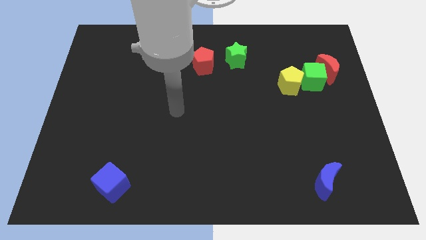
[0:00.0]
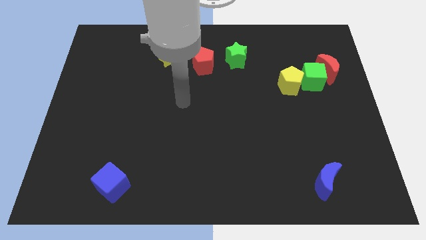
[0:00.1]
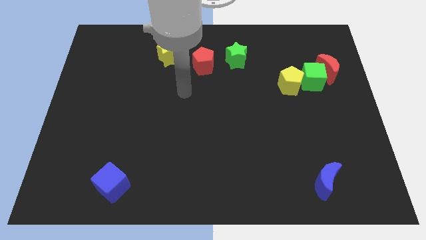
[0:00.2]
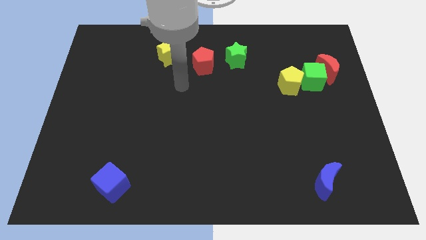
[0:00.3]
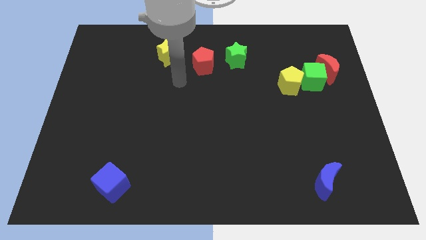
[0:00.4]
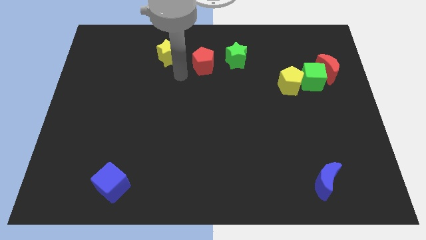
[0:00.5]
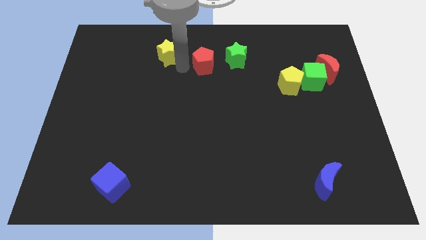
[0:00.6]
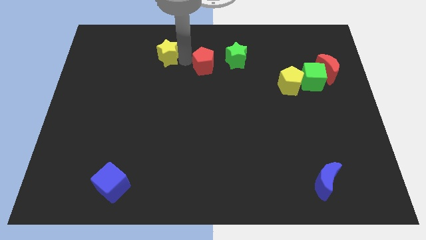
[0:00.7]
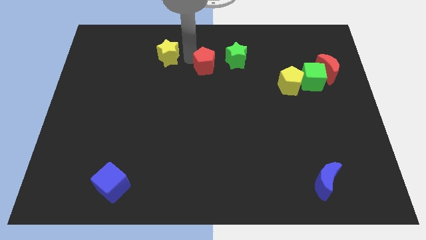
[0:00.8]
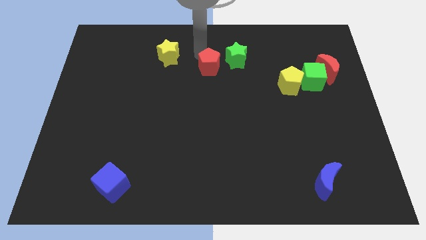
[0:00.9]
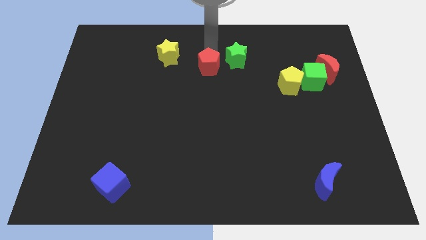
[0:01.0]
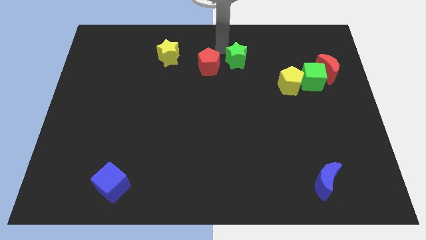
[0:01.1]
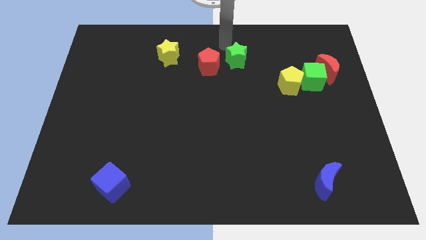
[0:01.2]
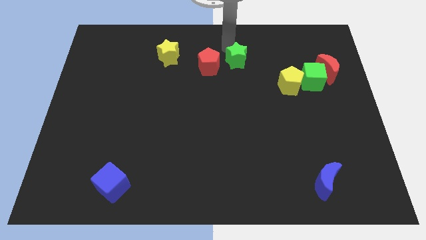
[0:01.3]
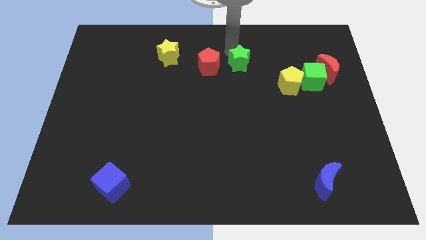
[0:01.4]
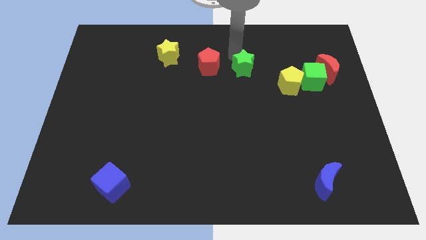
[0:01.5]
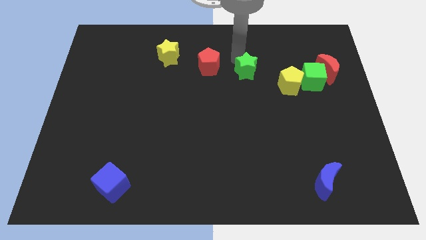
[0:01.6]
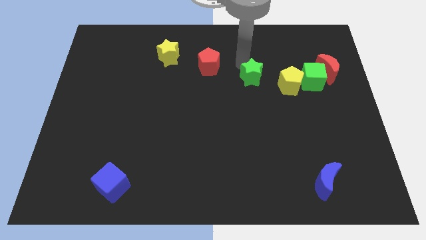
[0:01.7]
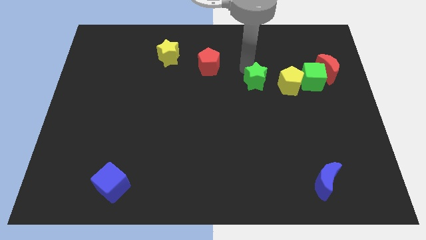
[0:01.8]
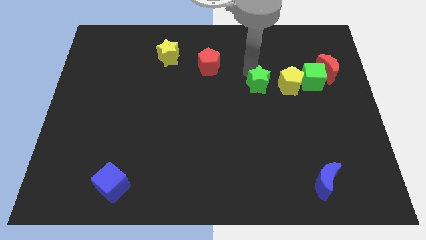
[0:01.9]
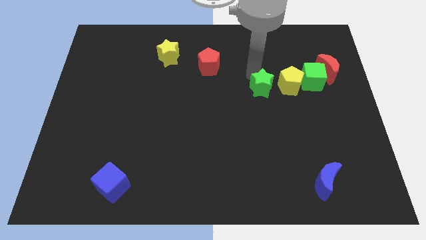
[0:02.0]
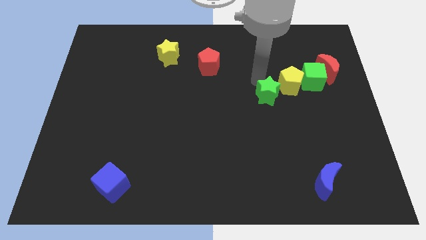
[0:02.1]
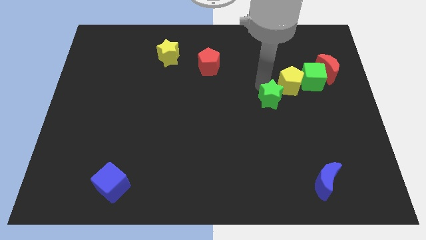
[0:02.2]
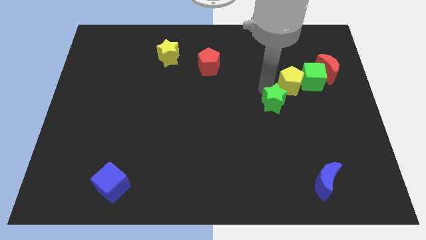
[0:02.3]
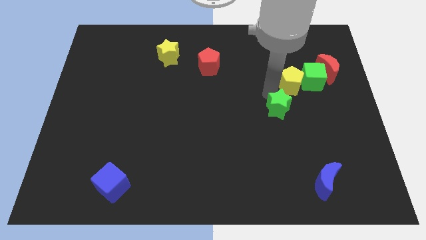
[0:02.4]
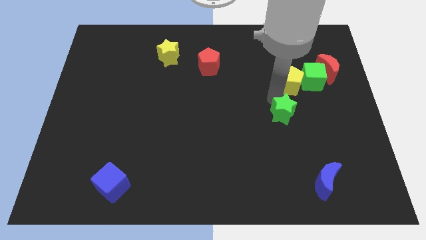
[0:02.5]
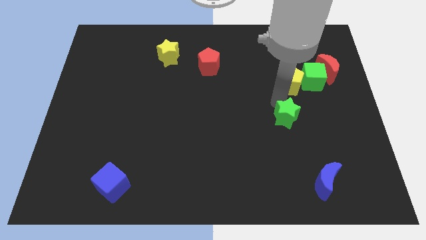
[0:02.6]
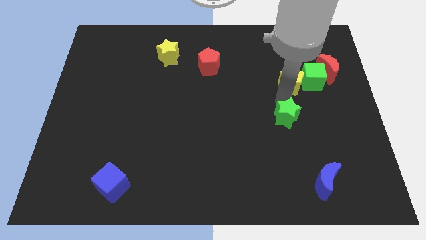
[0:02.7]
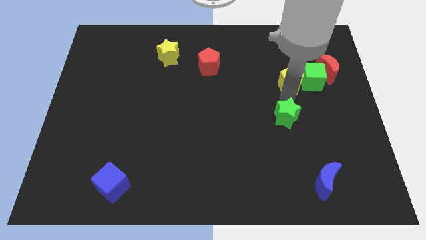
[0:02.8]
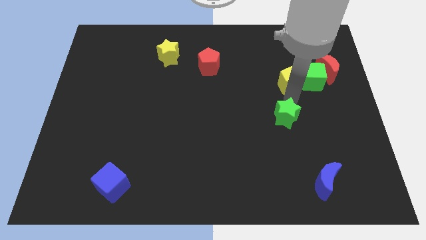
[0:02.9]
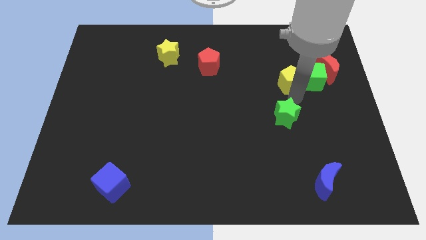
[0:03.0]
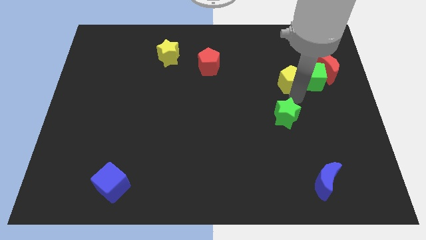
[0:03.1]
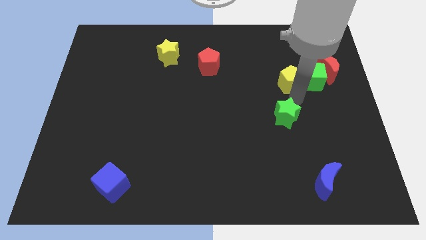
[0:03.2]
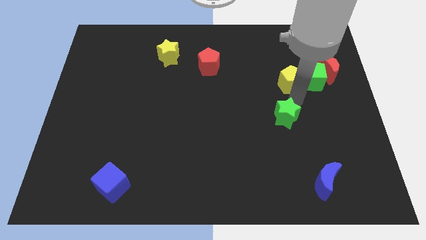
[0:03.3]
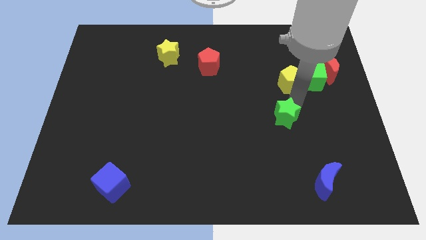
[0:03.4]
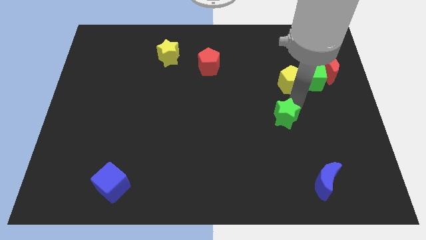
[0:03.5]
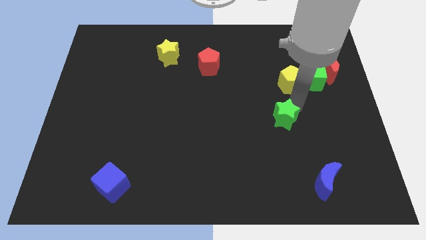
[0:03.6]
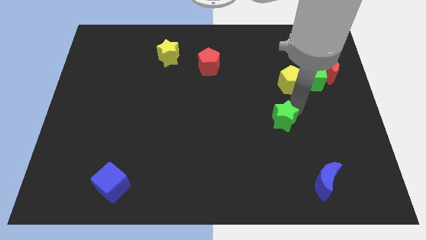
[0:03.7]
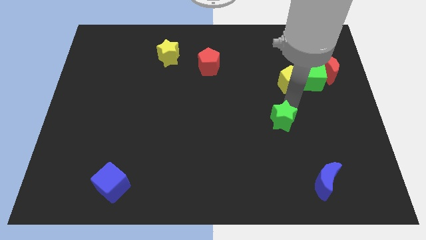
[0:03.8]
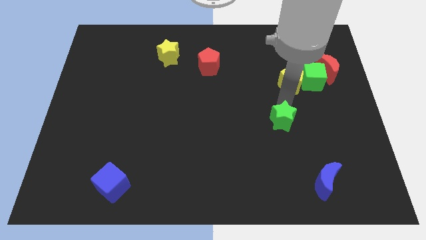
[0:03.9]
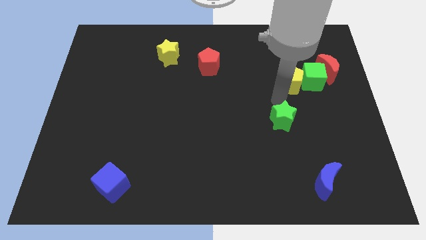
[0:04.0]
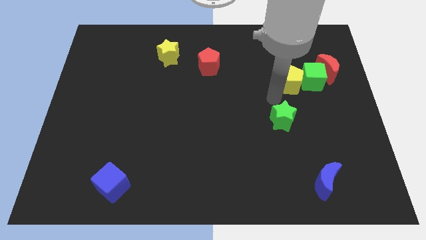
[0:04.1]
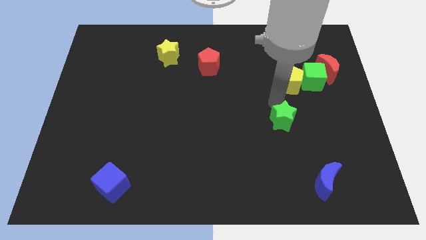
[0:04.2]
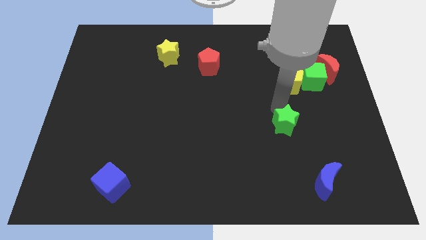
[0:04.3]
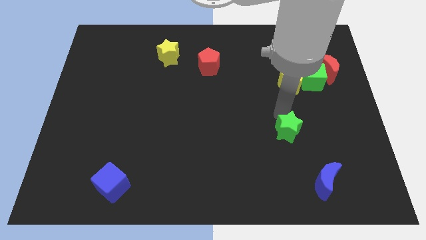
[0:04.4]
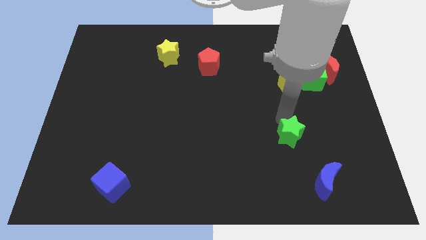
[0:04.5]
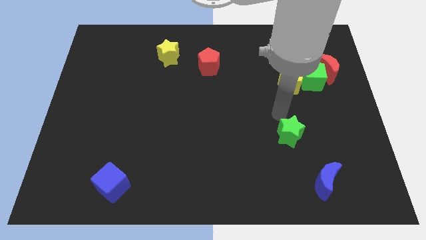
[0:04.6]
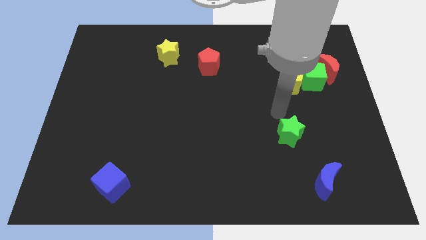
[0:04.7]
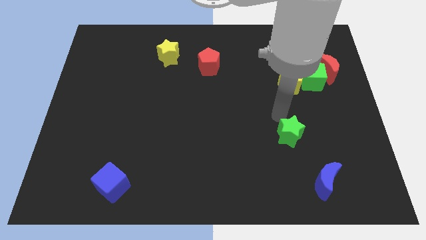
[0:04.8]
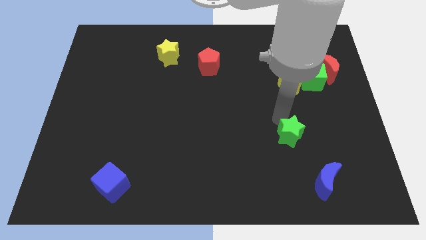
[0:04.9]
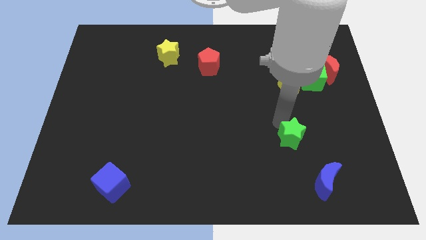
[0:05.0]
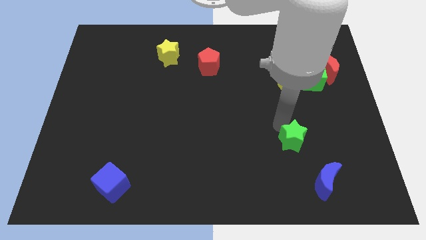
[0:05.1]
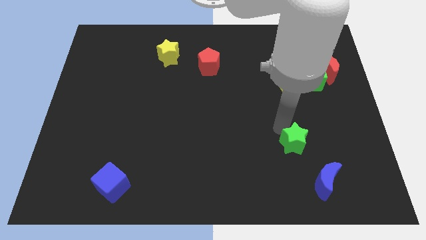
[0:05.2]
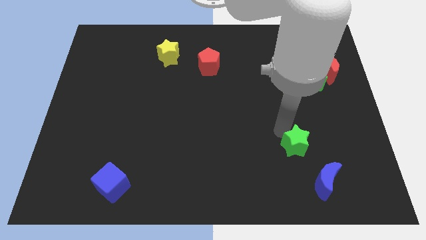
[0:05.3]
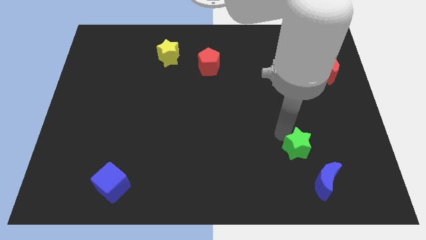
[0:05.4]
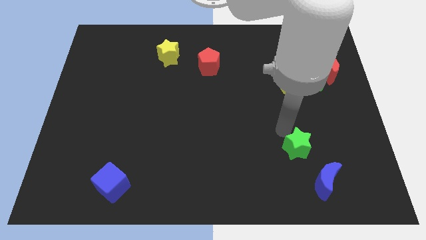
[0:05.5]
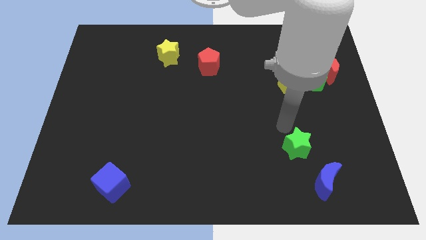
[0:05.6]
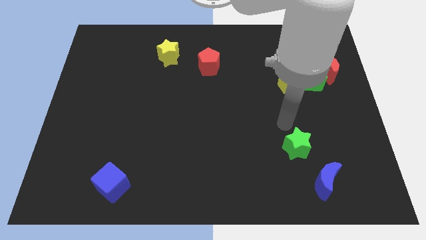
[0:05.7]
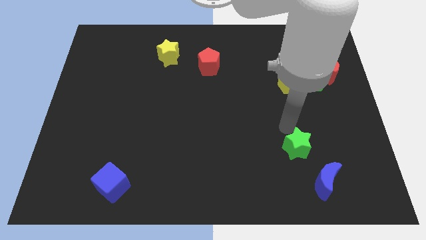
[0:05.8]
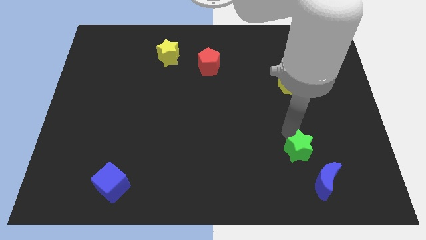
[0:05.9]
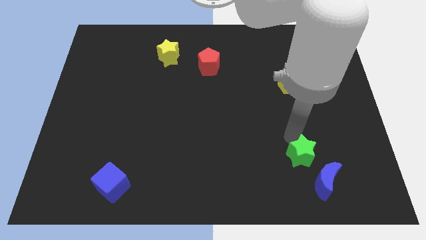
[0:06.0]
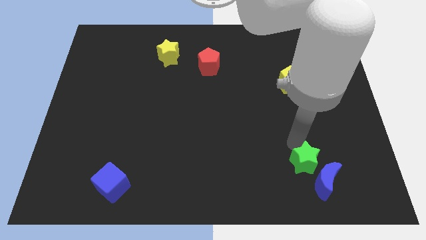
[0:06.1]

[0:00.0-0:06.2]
slide the green star close to the blue moon

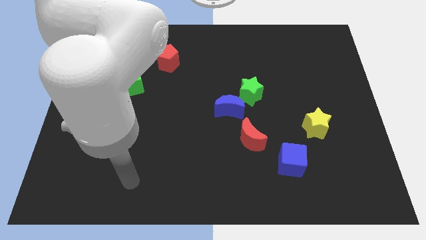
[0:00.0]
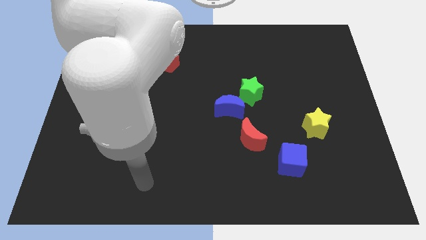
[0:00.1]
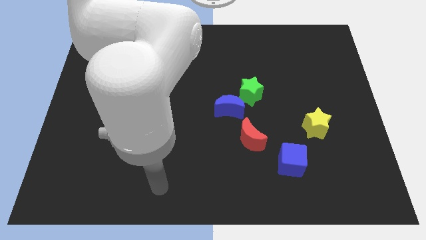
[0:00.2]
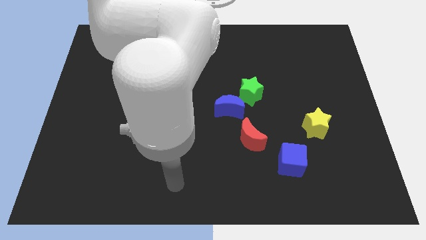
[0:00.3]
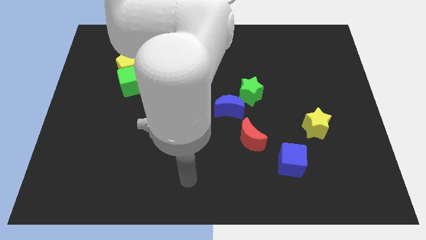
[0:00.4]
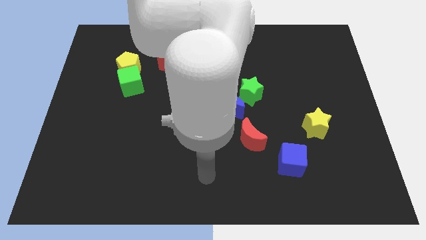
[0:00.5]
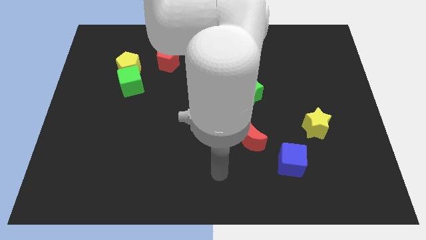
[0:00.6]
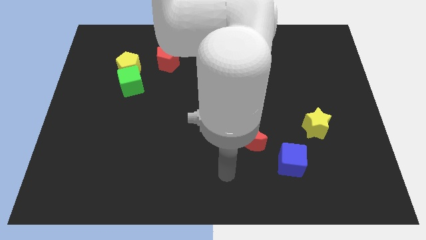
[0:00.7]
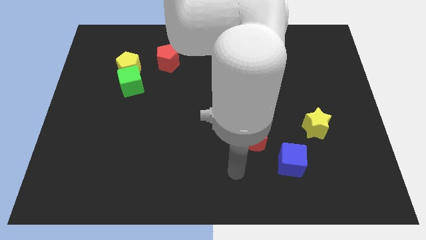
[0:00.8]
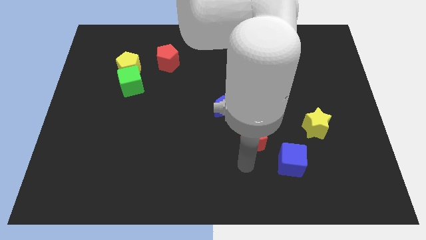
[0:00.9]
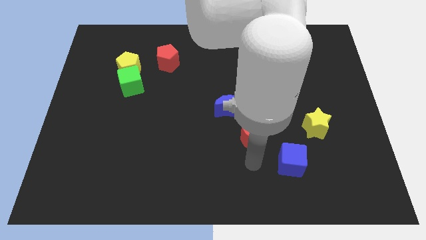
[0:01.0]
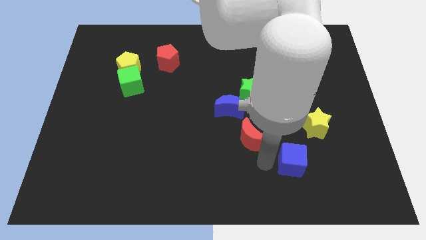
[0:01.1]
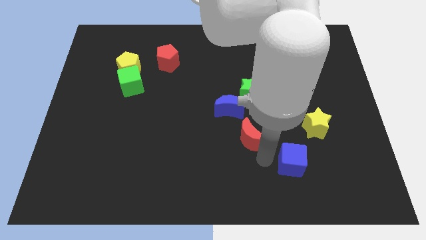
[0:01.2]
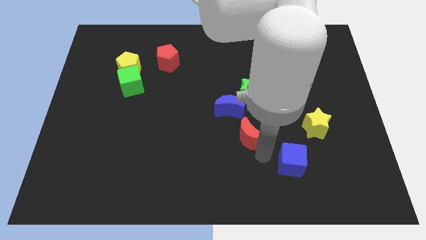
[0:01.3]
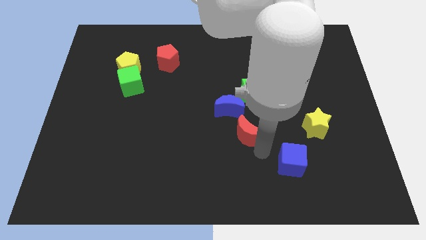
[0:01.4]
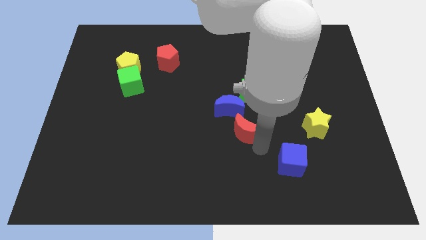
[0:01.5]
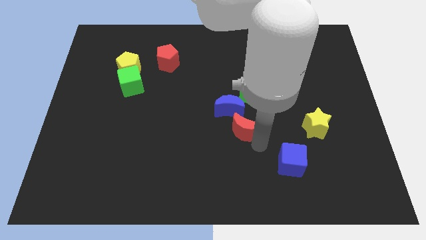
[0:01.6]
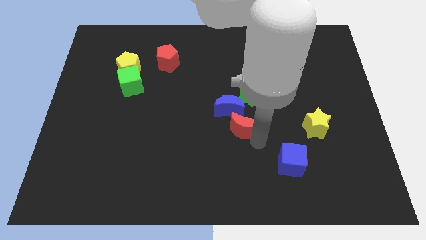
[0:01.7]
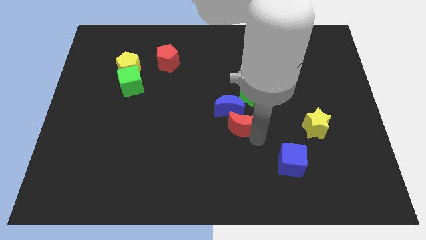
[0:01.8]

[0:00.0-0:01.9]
put the red moon towards the blue moon
